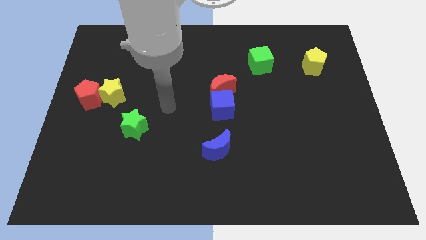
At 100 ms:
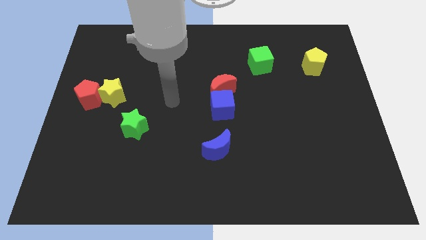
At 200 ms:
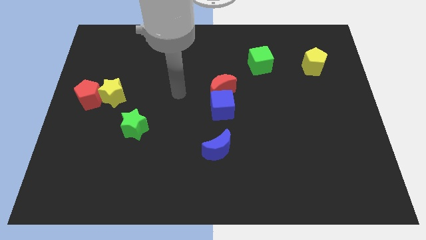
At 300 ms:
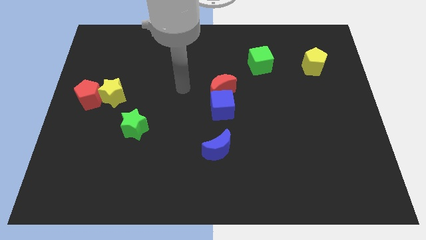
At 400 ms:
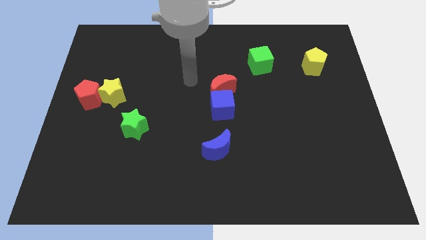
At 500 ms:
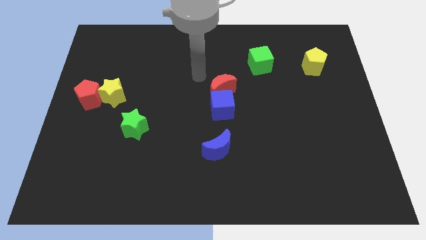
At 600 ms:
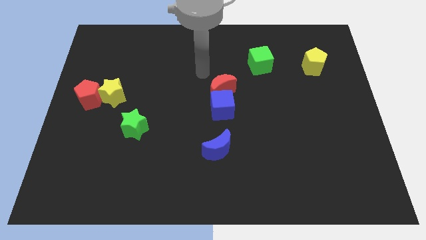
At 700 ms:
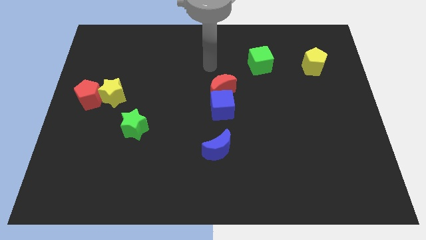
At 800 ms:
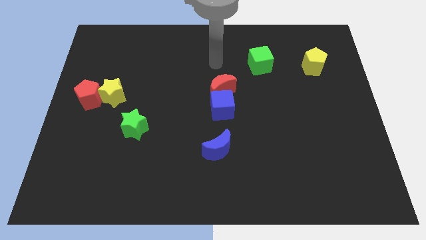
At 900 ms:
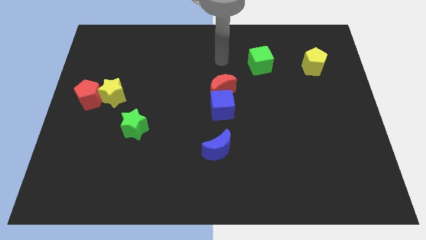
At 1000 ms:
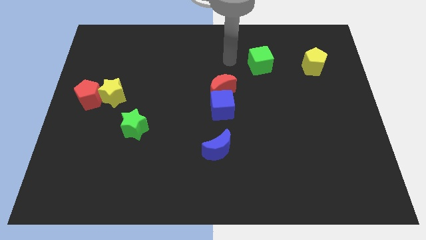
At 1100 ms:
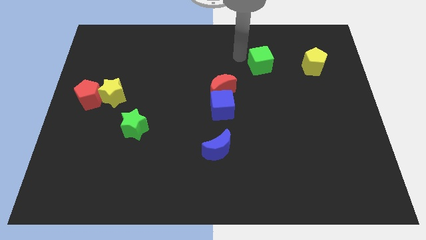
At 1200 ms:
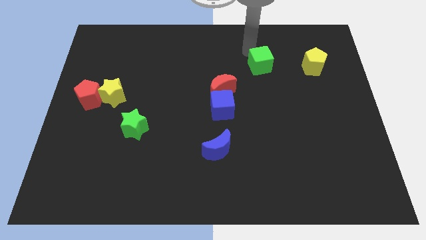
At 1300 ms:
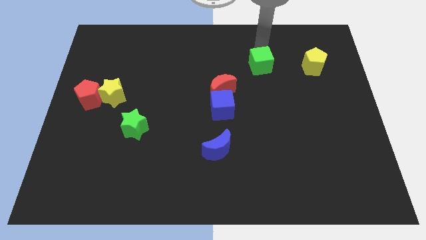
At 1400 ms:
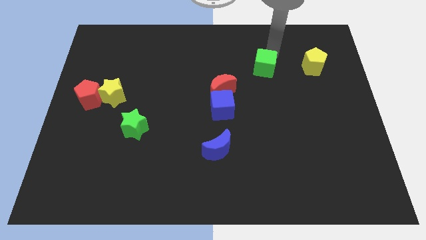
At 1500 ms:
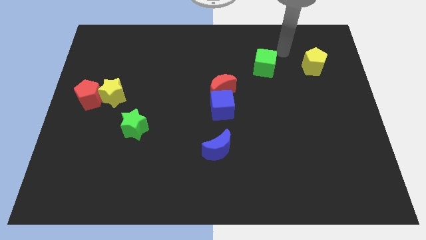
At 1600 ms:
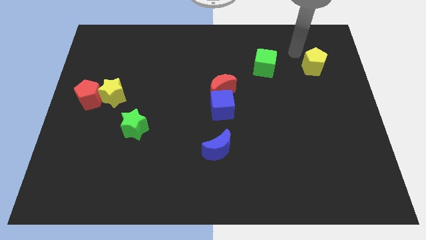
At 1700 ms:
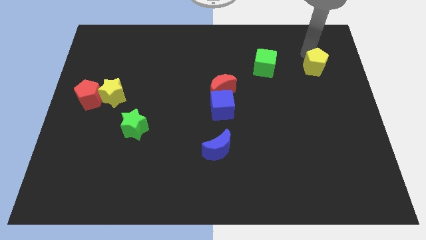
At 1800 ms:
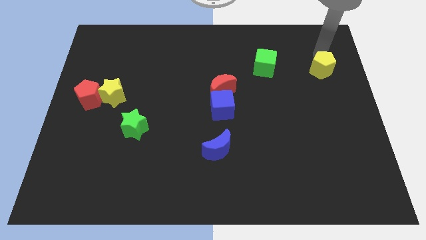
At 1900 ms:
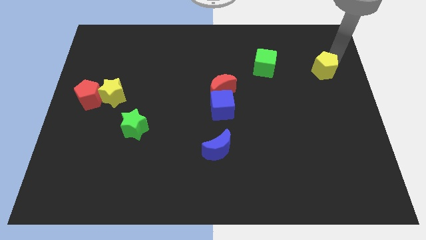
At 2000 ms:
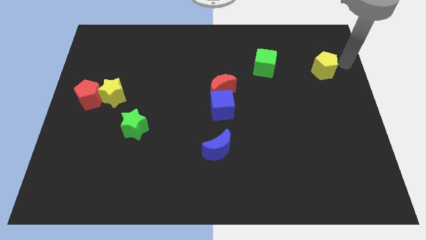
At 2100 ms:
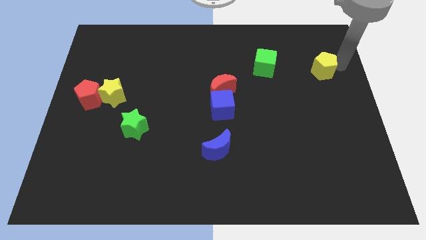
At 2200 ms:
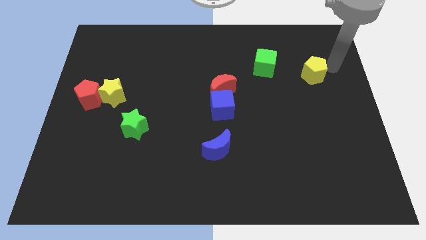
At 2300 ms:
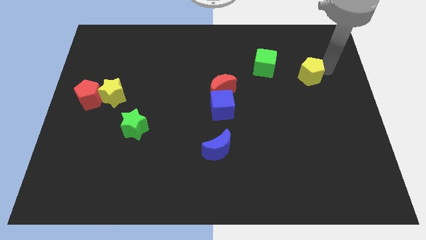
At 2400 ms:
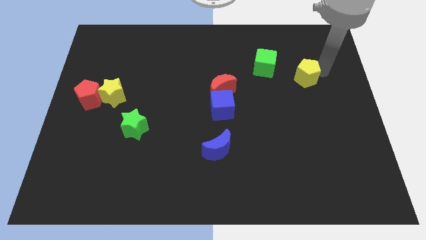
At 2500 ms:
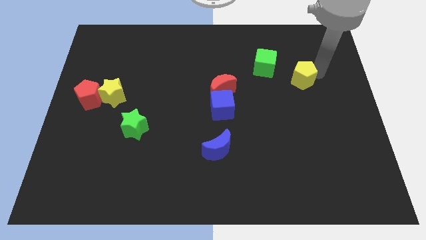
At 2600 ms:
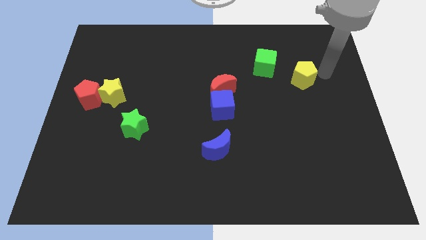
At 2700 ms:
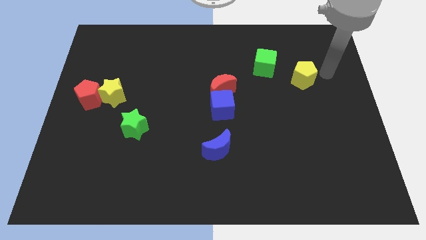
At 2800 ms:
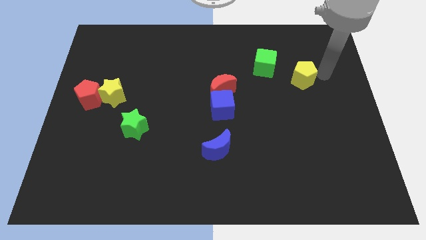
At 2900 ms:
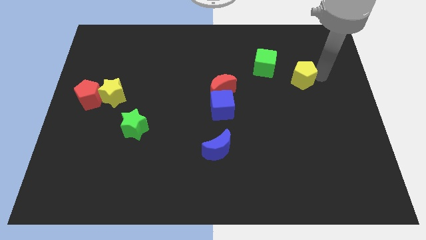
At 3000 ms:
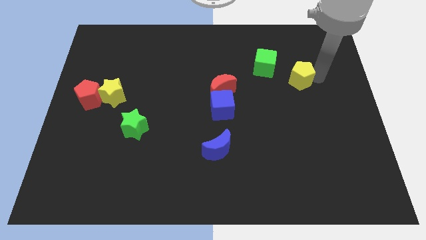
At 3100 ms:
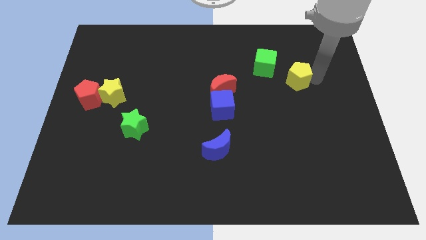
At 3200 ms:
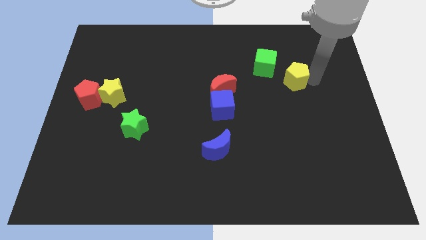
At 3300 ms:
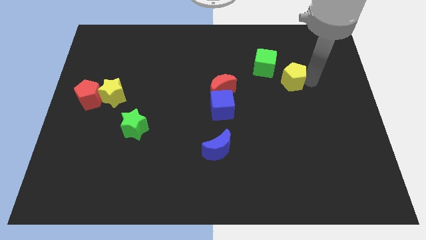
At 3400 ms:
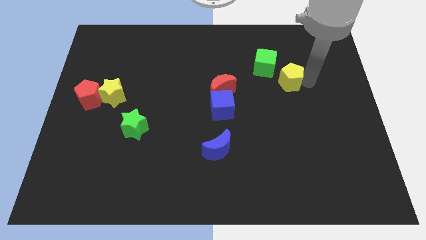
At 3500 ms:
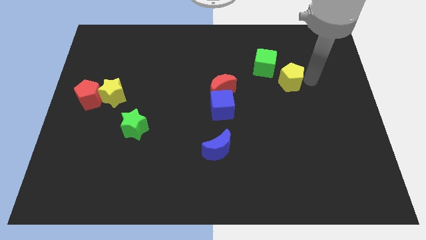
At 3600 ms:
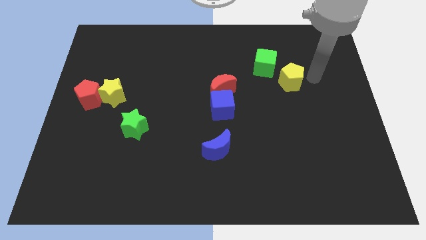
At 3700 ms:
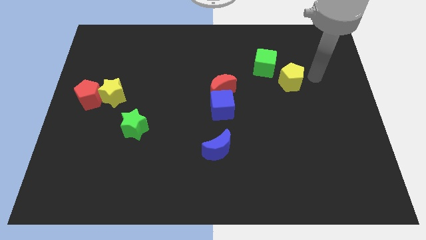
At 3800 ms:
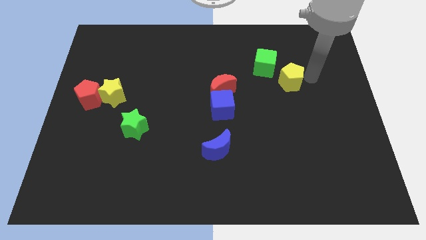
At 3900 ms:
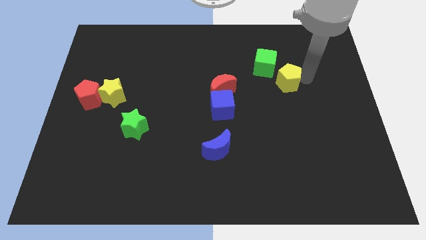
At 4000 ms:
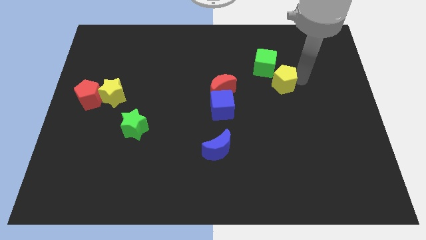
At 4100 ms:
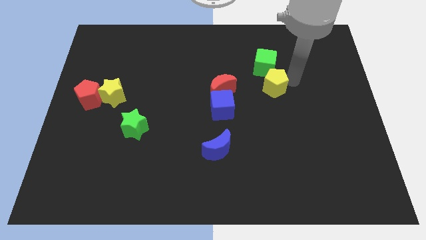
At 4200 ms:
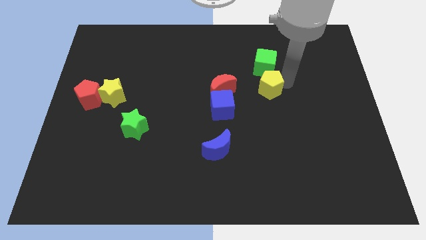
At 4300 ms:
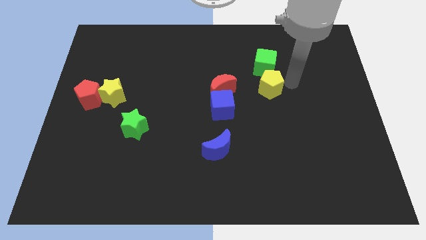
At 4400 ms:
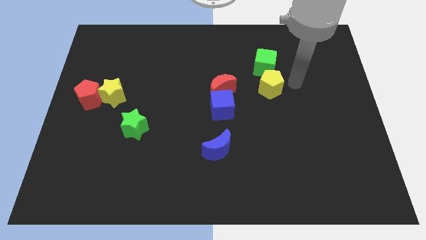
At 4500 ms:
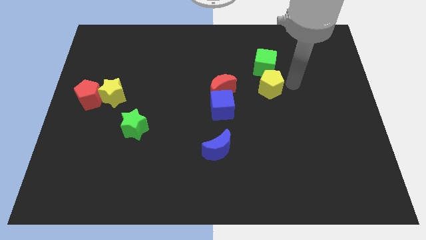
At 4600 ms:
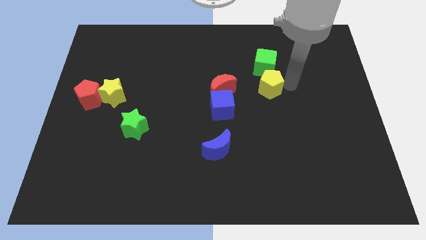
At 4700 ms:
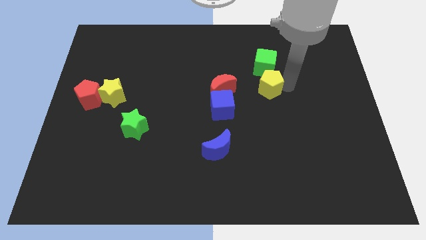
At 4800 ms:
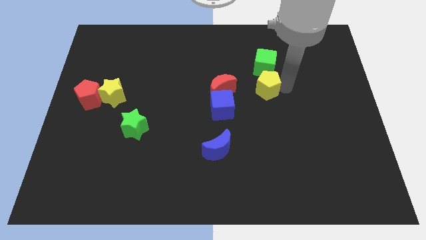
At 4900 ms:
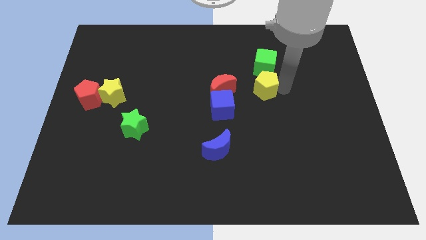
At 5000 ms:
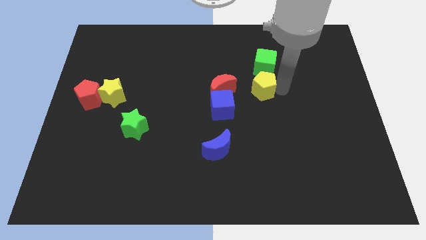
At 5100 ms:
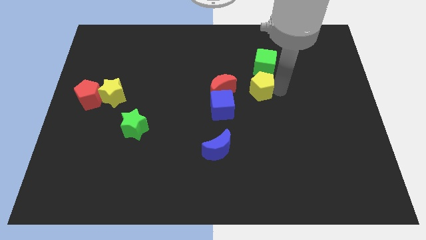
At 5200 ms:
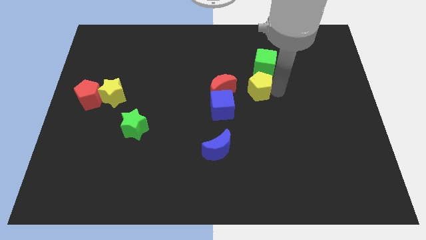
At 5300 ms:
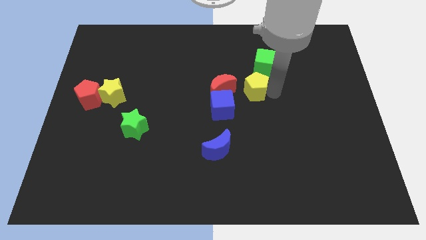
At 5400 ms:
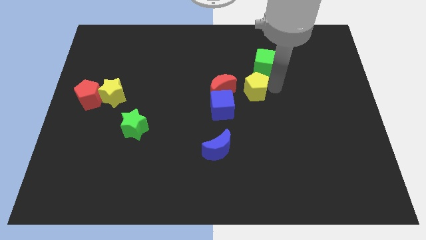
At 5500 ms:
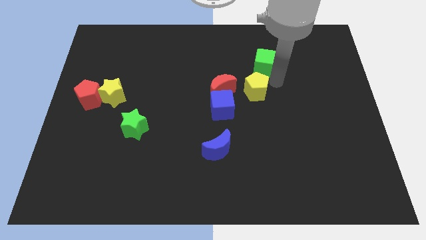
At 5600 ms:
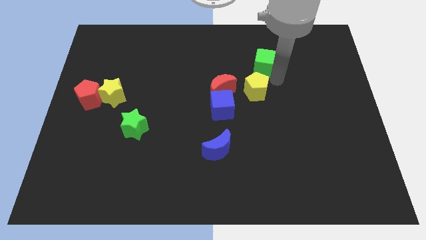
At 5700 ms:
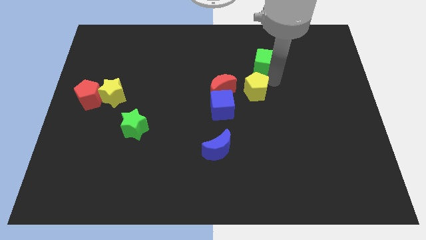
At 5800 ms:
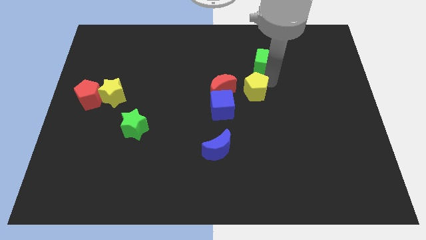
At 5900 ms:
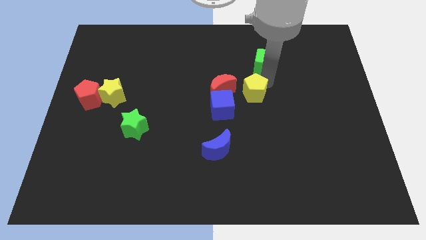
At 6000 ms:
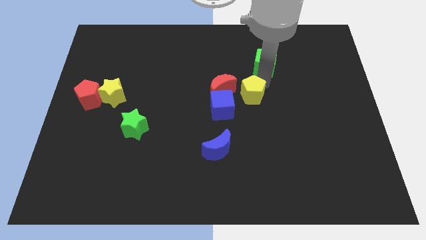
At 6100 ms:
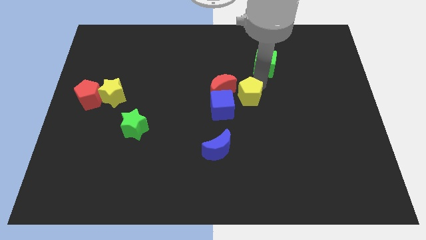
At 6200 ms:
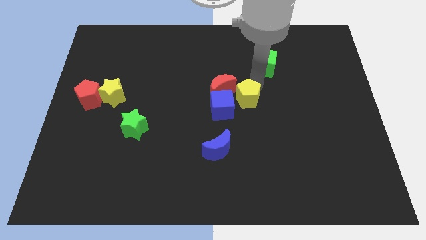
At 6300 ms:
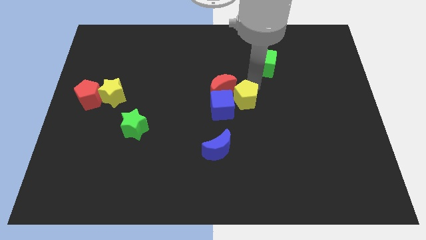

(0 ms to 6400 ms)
slide the yellow pentagon towards the blue cube
